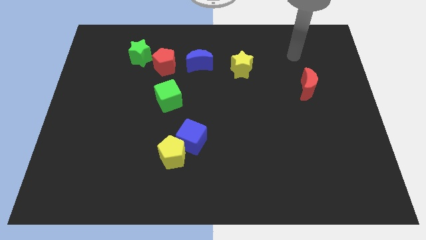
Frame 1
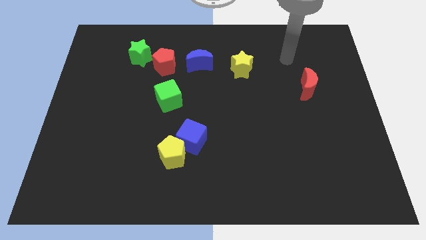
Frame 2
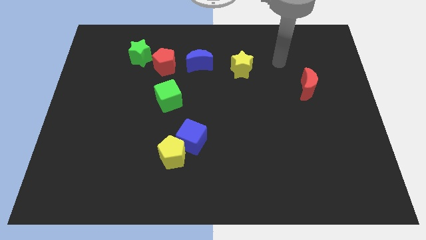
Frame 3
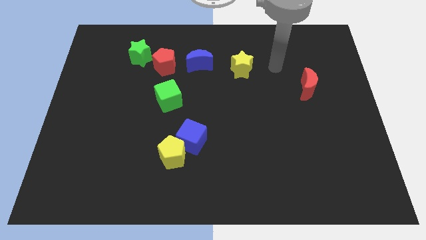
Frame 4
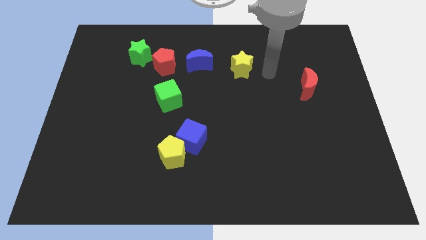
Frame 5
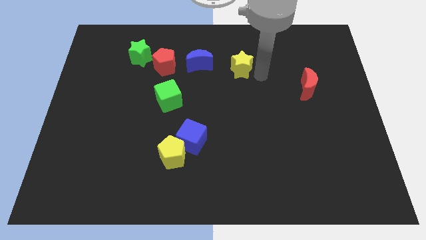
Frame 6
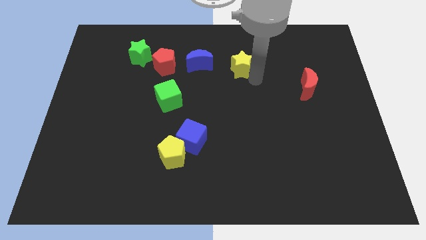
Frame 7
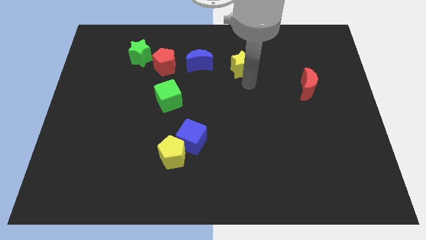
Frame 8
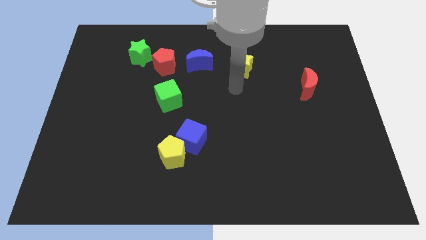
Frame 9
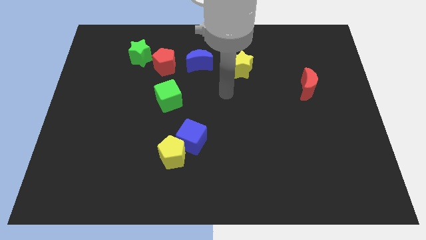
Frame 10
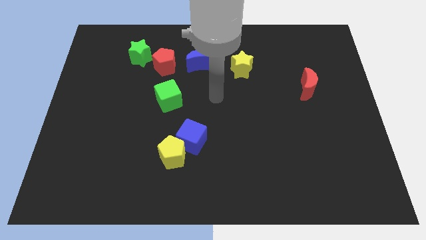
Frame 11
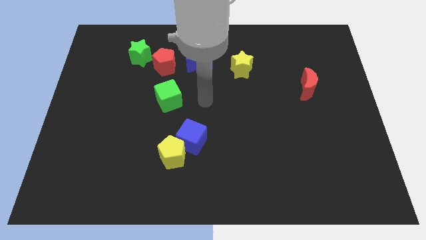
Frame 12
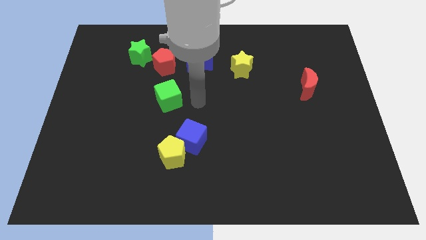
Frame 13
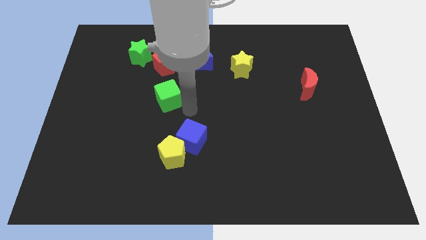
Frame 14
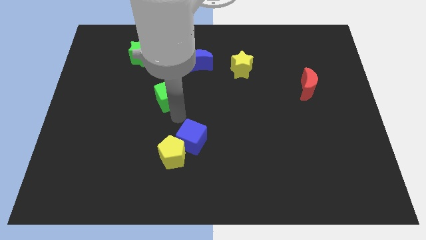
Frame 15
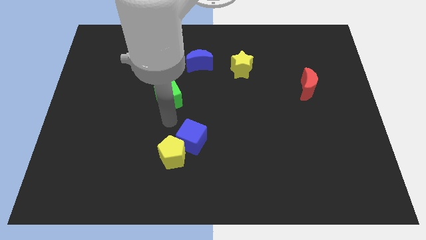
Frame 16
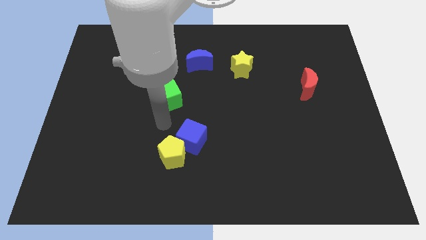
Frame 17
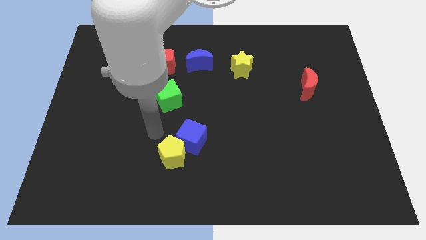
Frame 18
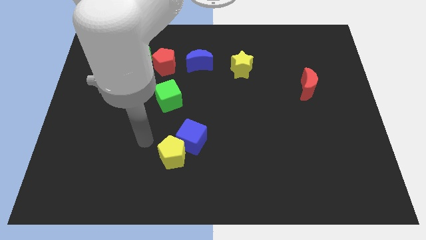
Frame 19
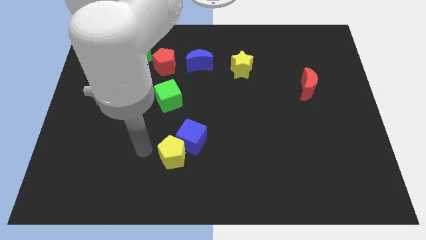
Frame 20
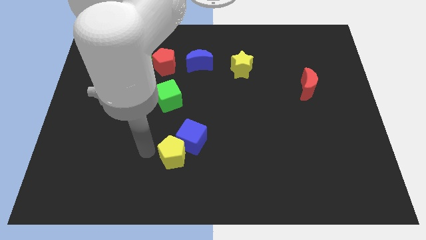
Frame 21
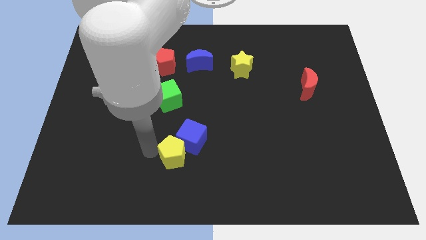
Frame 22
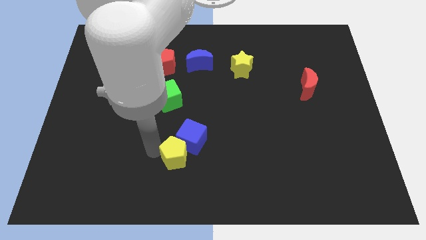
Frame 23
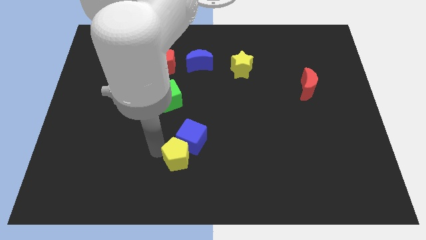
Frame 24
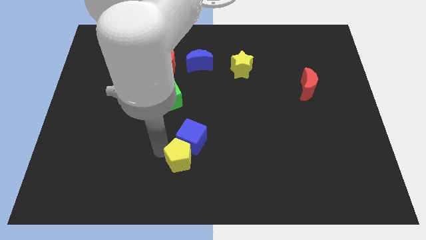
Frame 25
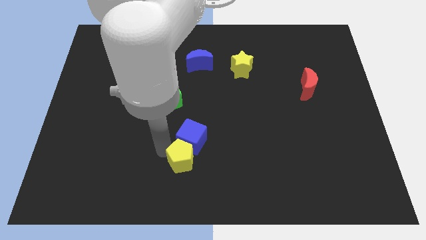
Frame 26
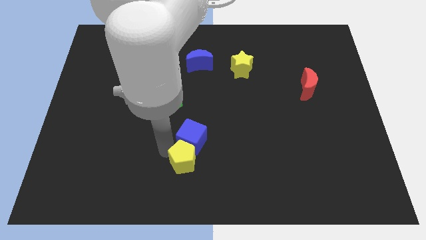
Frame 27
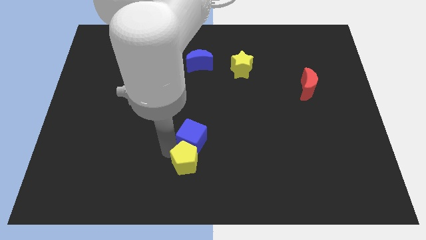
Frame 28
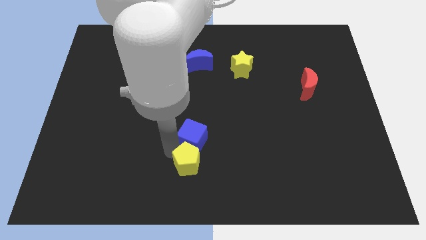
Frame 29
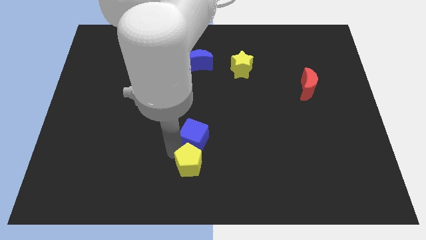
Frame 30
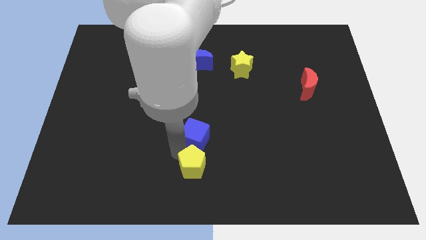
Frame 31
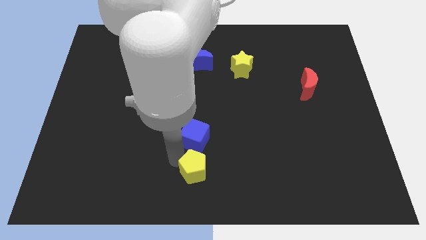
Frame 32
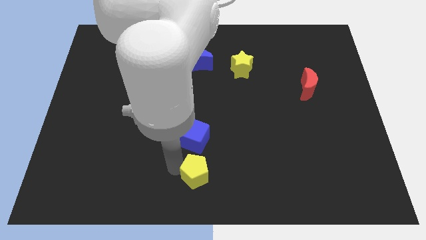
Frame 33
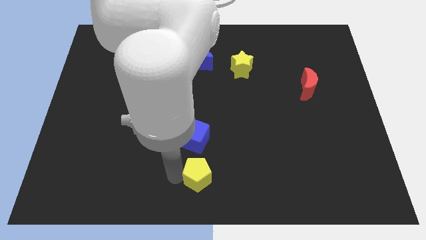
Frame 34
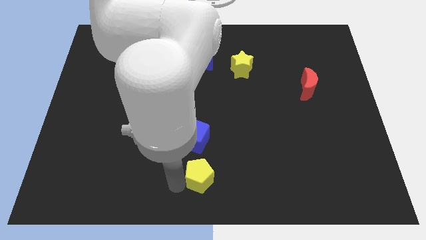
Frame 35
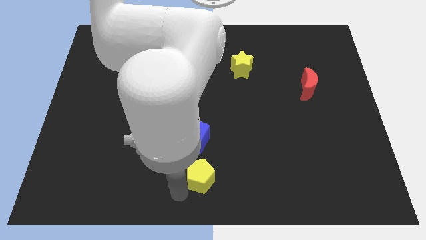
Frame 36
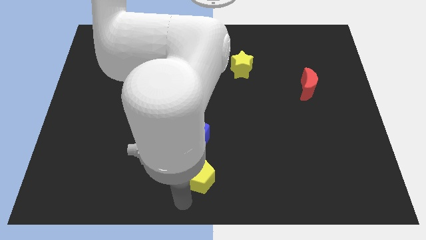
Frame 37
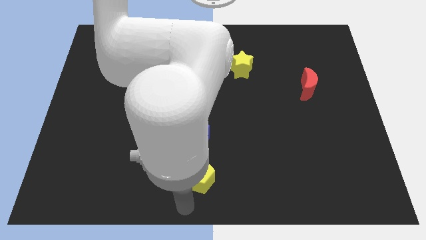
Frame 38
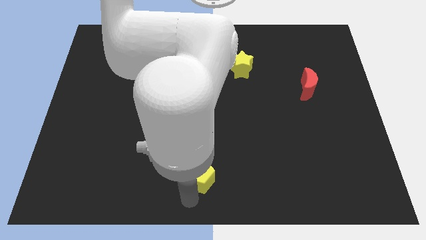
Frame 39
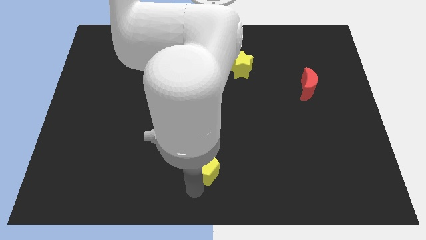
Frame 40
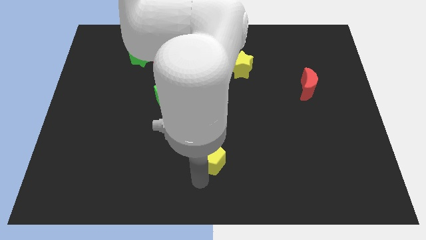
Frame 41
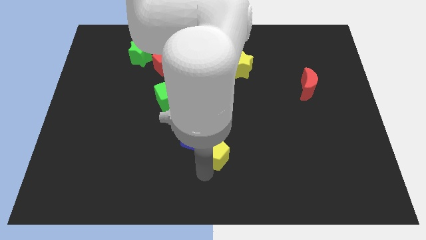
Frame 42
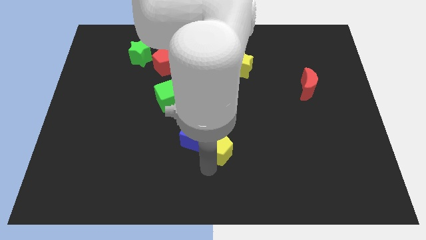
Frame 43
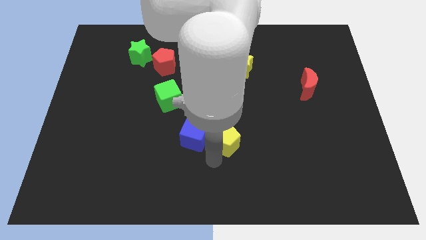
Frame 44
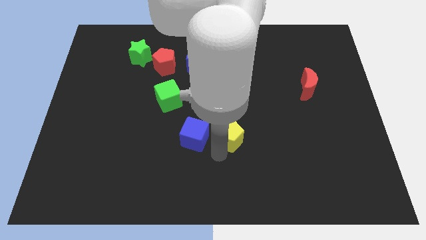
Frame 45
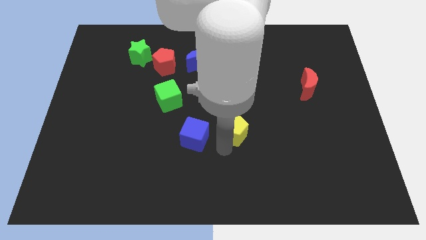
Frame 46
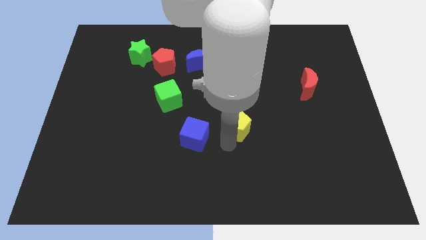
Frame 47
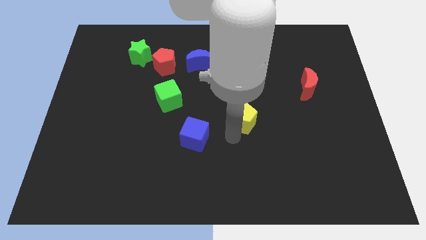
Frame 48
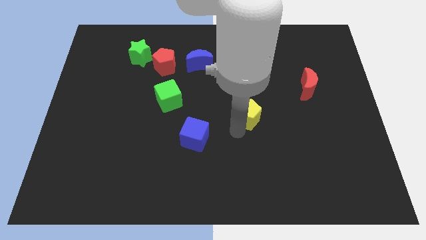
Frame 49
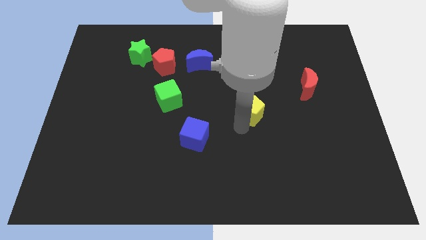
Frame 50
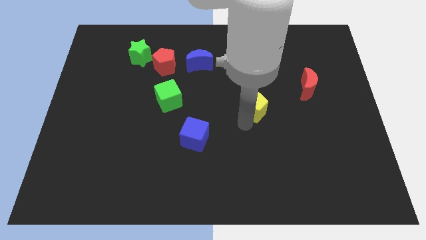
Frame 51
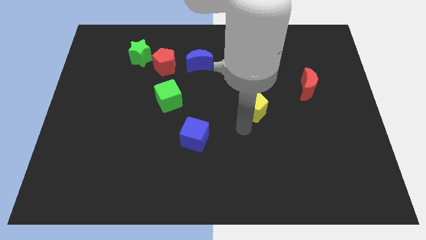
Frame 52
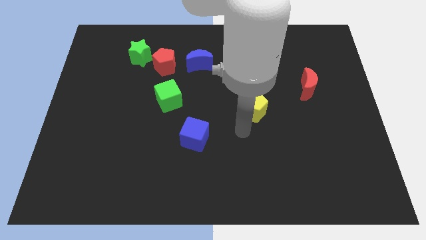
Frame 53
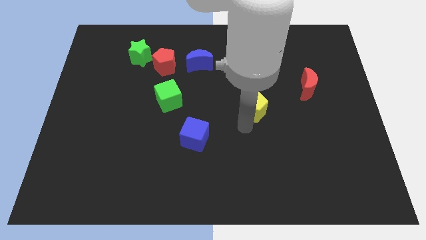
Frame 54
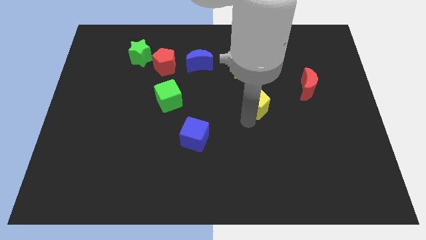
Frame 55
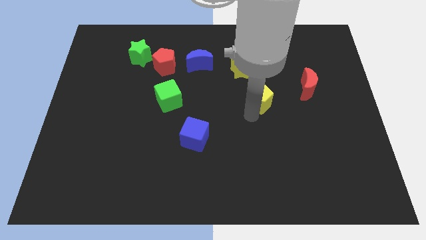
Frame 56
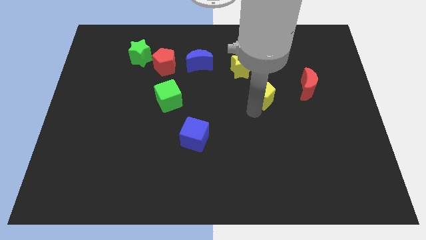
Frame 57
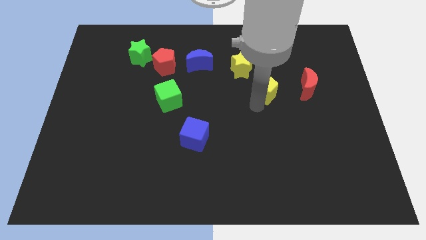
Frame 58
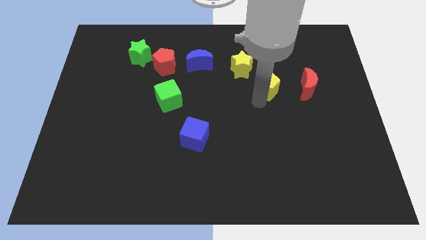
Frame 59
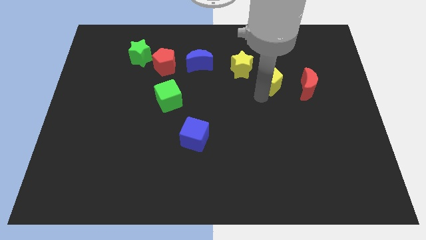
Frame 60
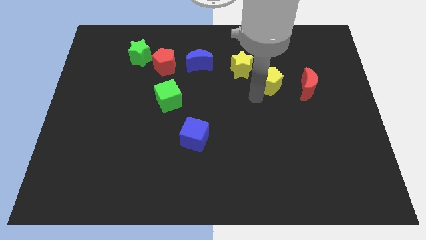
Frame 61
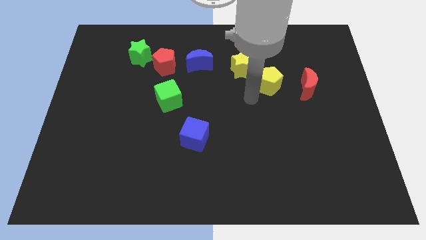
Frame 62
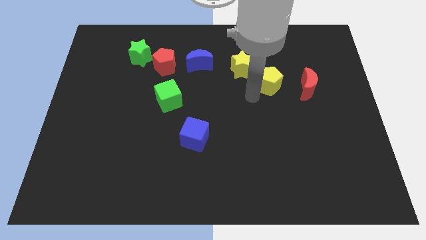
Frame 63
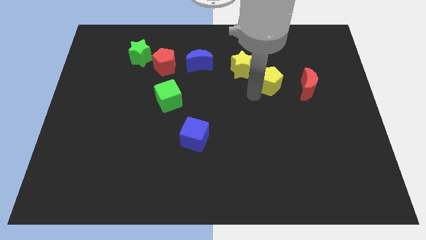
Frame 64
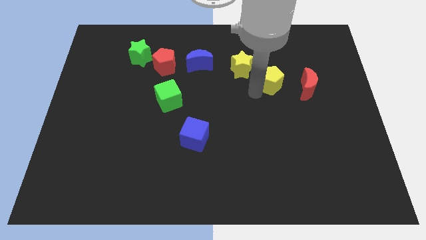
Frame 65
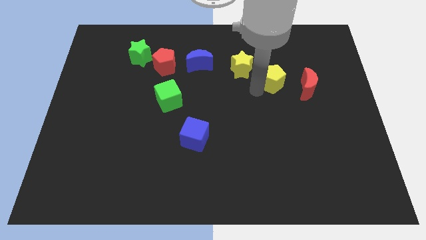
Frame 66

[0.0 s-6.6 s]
move the yellow pentagon to the top left side of the red moon

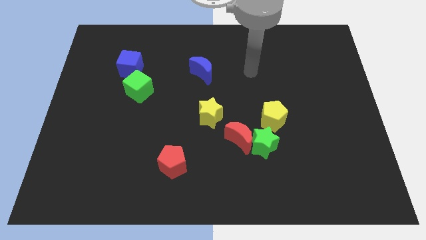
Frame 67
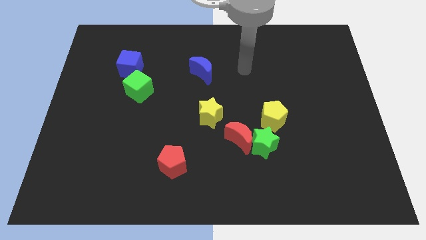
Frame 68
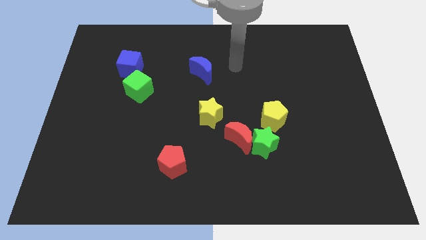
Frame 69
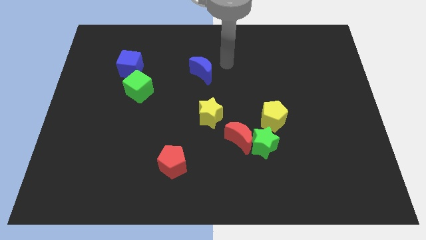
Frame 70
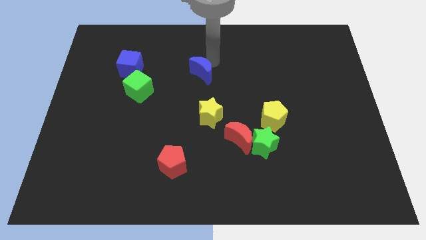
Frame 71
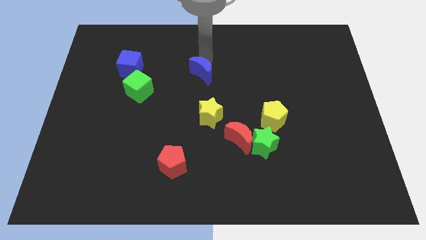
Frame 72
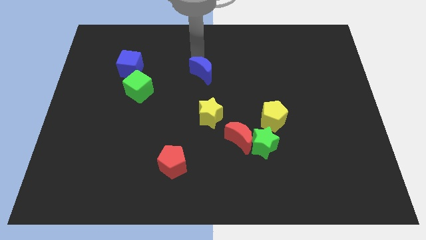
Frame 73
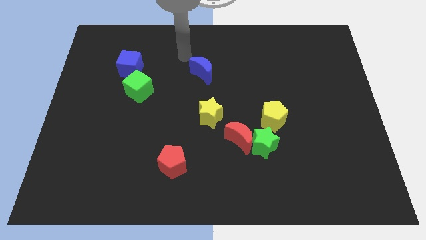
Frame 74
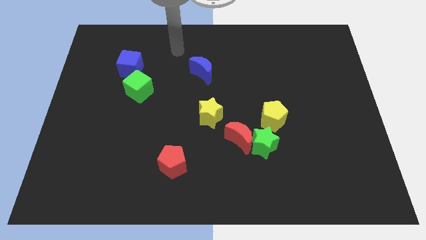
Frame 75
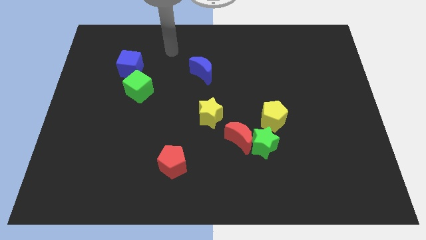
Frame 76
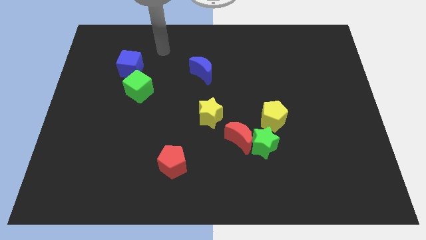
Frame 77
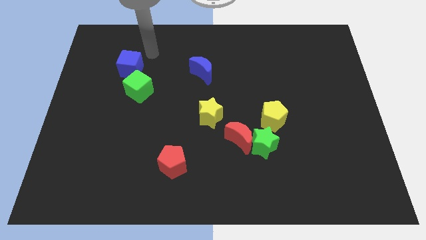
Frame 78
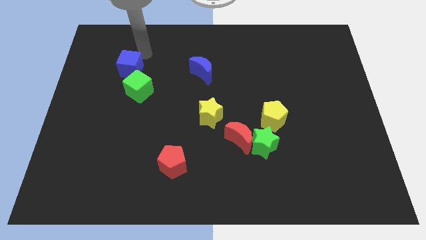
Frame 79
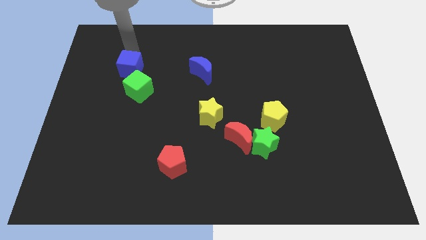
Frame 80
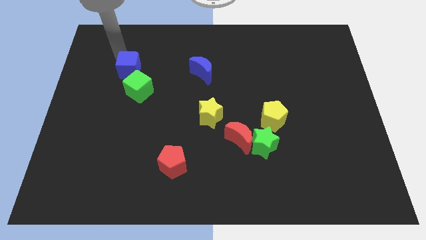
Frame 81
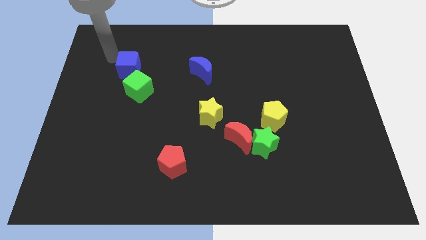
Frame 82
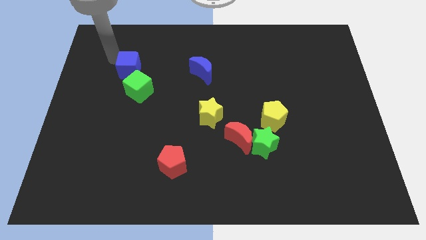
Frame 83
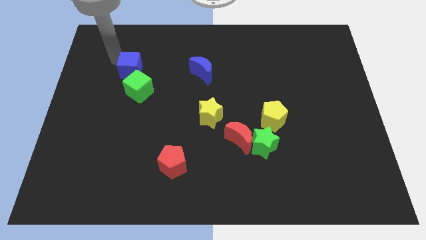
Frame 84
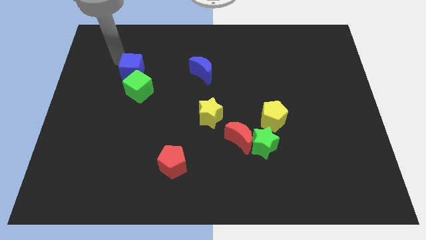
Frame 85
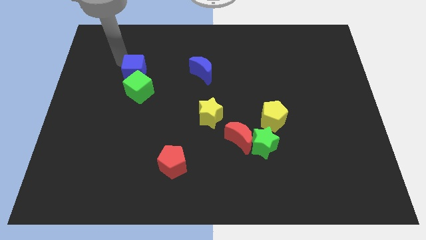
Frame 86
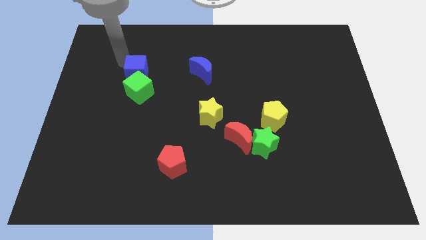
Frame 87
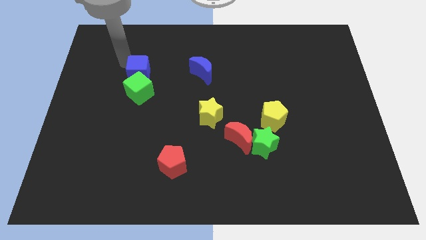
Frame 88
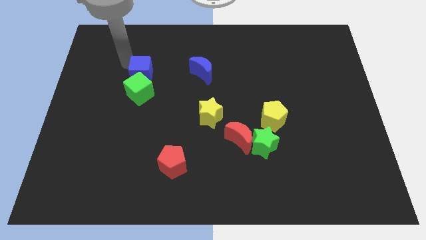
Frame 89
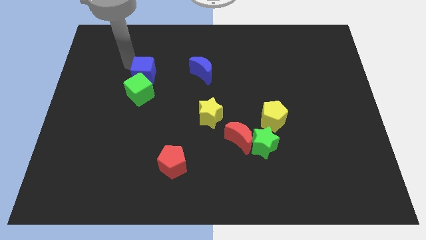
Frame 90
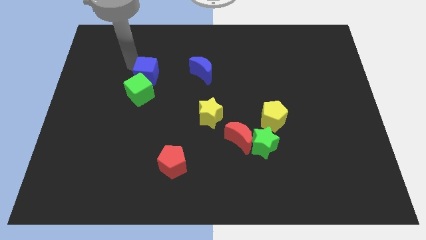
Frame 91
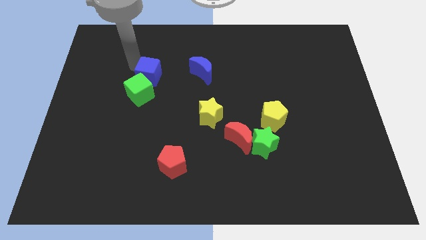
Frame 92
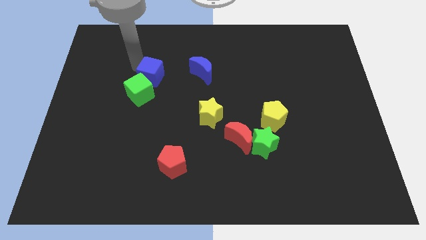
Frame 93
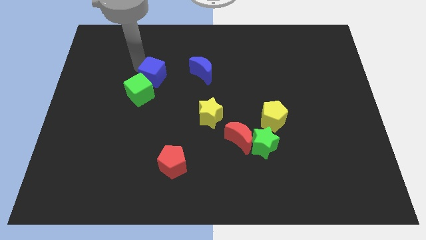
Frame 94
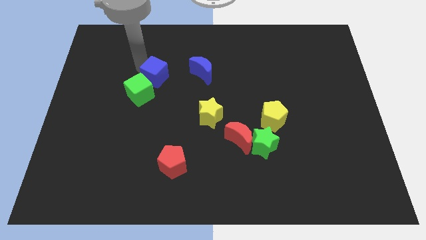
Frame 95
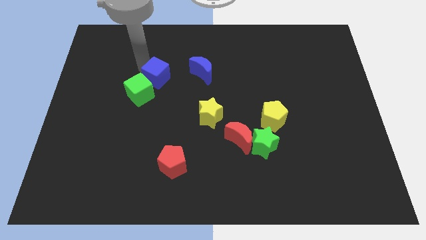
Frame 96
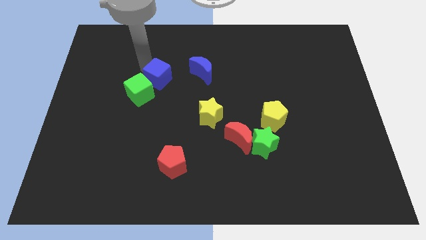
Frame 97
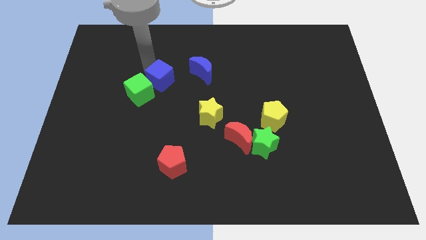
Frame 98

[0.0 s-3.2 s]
push the blue cube right of the green cube
